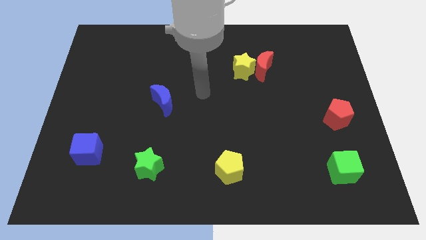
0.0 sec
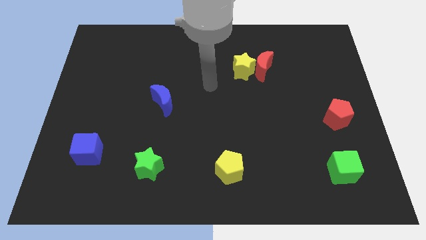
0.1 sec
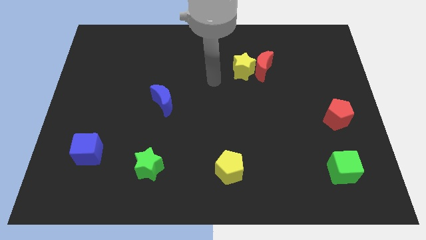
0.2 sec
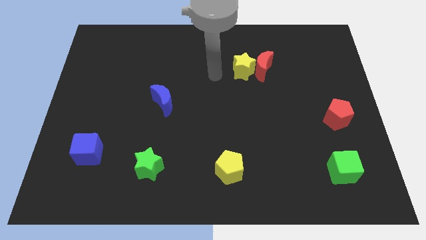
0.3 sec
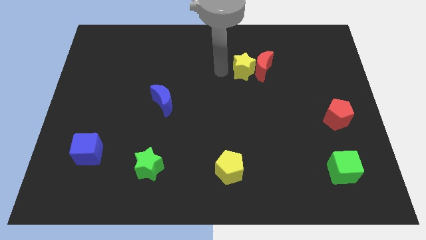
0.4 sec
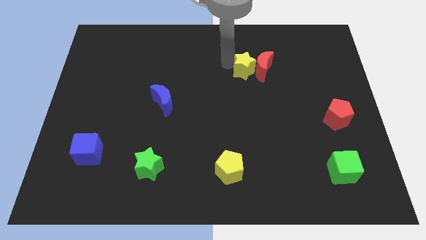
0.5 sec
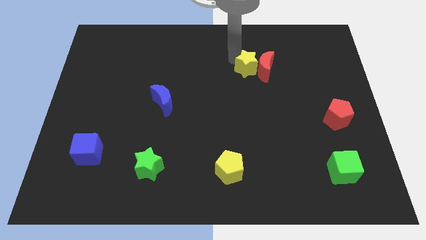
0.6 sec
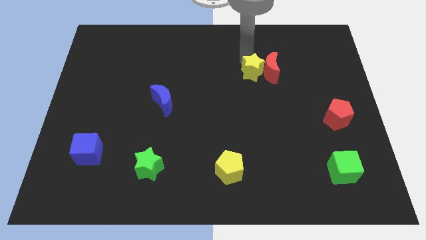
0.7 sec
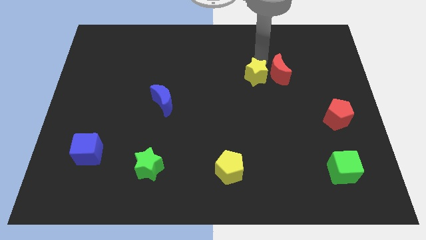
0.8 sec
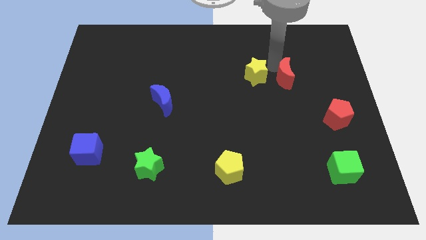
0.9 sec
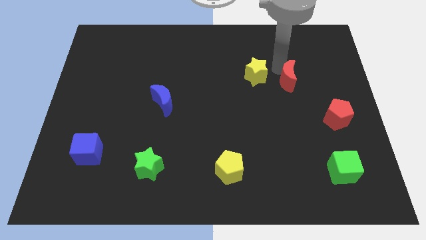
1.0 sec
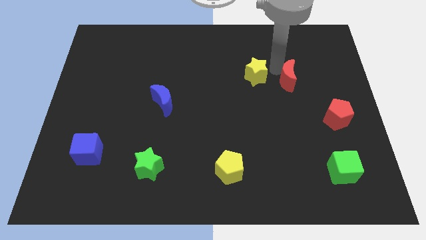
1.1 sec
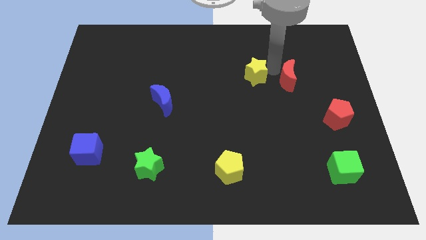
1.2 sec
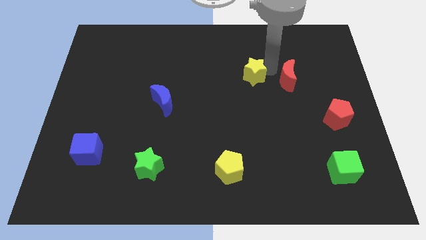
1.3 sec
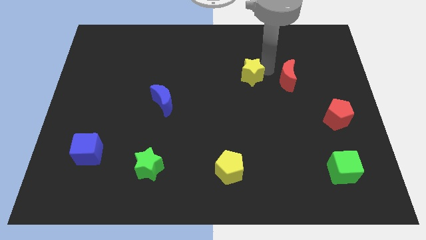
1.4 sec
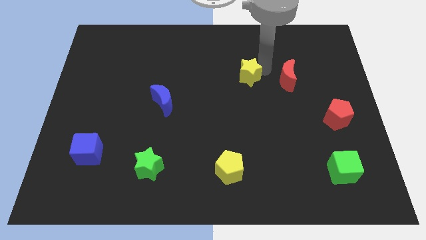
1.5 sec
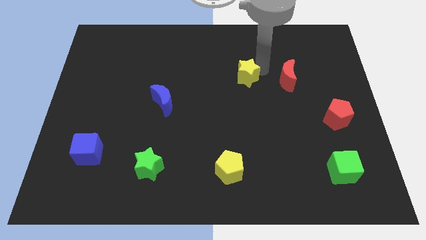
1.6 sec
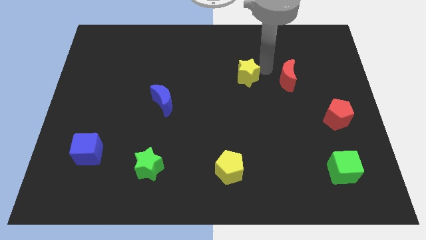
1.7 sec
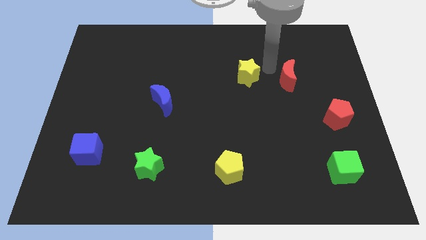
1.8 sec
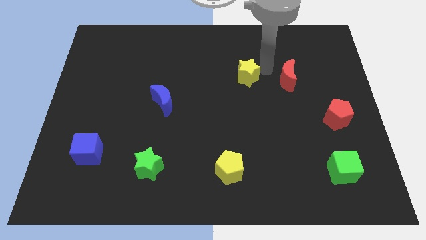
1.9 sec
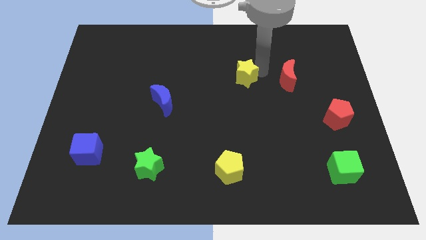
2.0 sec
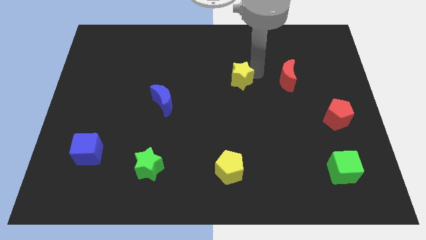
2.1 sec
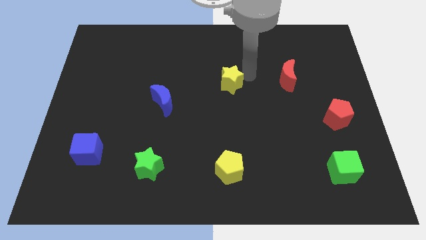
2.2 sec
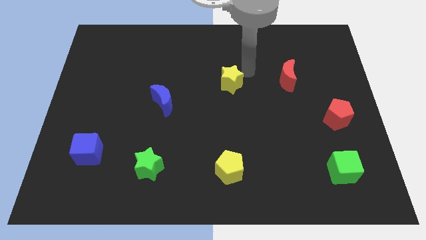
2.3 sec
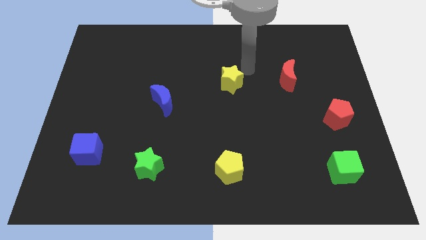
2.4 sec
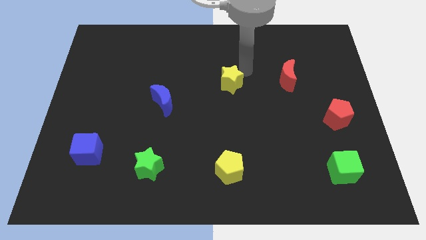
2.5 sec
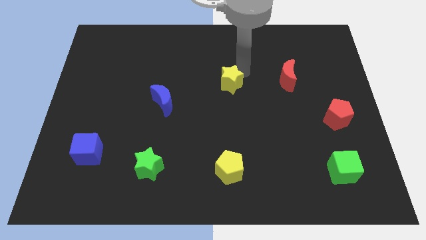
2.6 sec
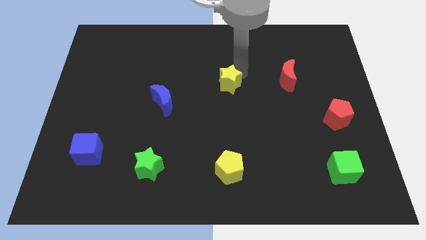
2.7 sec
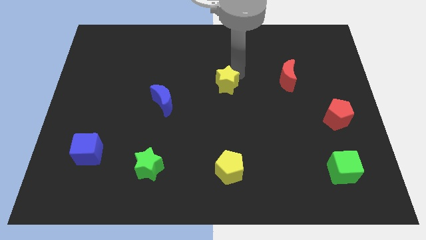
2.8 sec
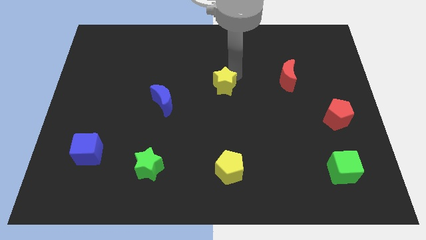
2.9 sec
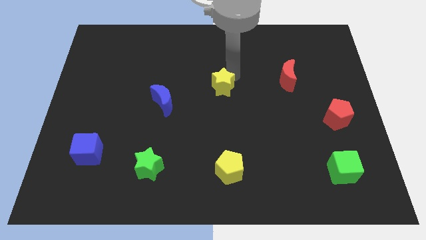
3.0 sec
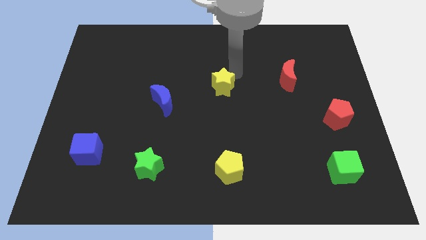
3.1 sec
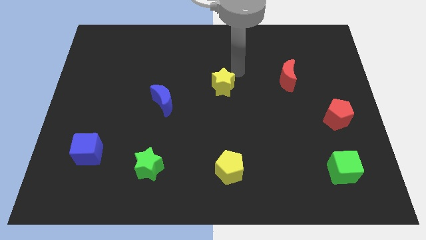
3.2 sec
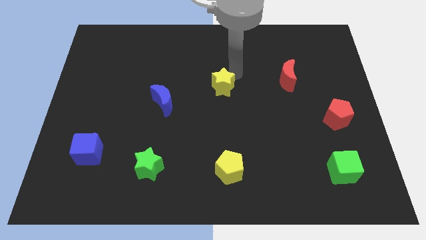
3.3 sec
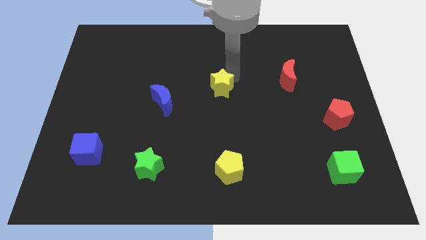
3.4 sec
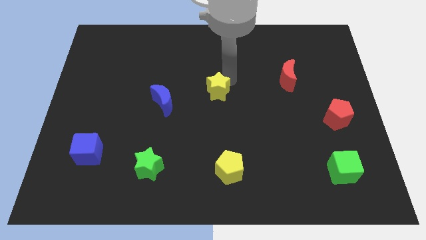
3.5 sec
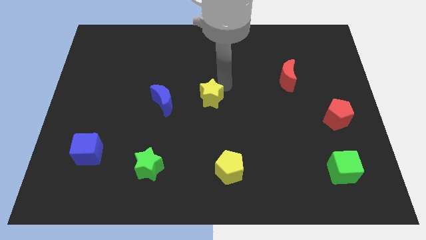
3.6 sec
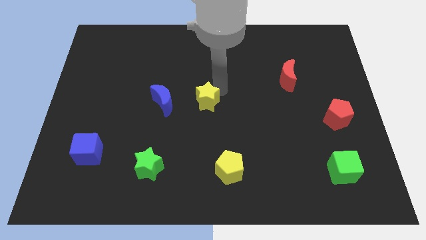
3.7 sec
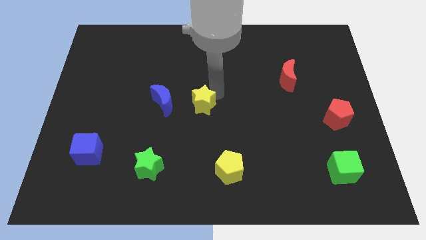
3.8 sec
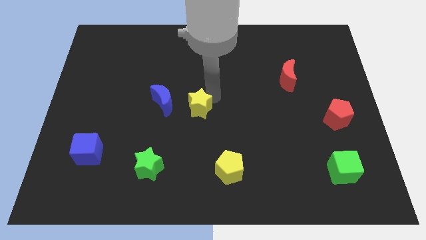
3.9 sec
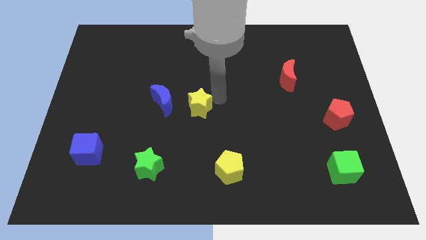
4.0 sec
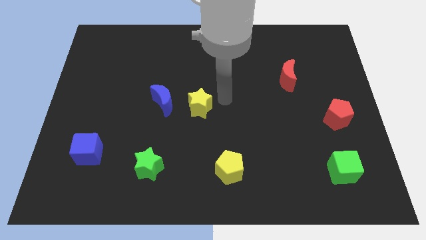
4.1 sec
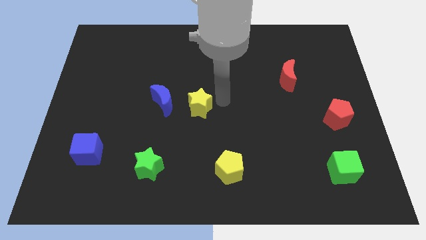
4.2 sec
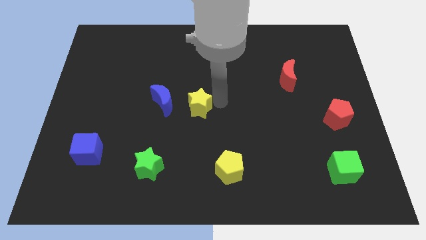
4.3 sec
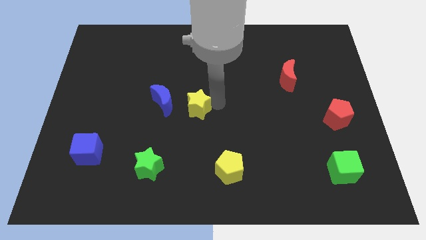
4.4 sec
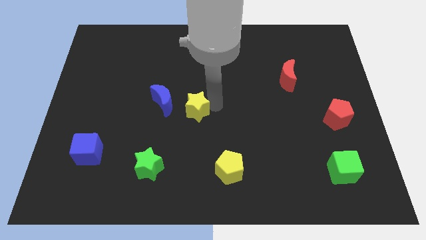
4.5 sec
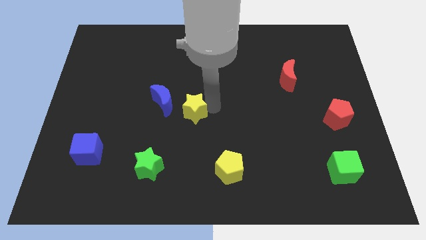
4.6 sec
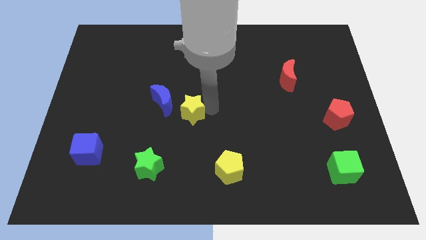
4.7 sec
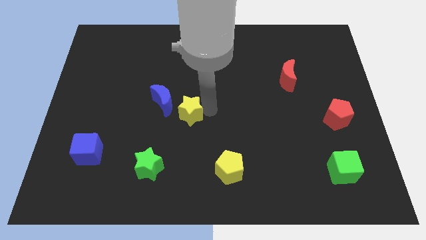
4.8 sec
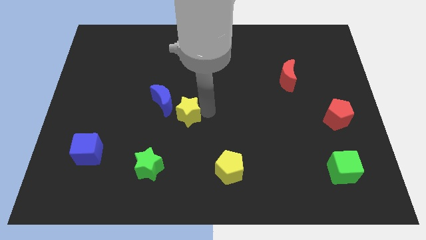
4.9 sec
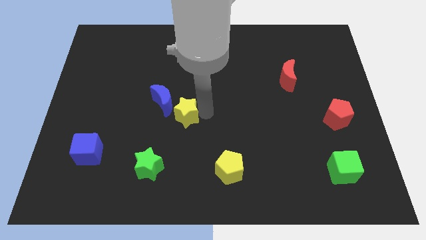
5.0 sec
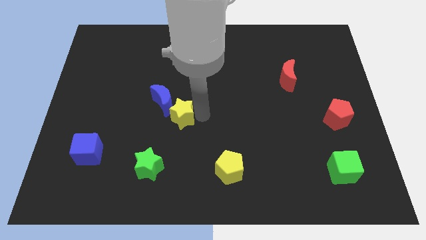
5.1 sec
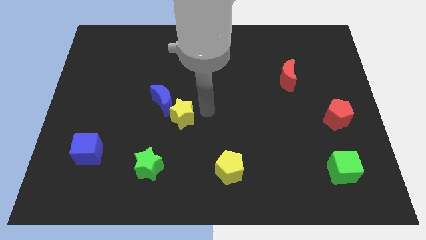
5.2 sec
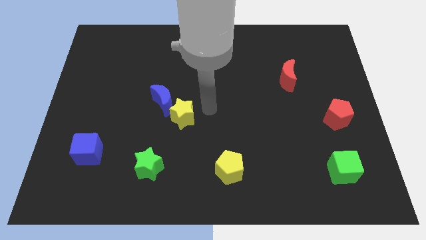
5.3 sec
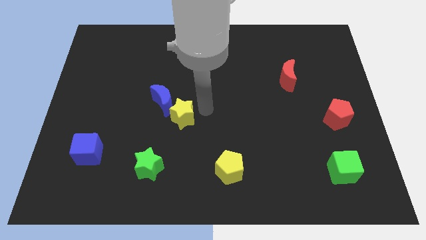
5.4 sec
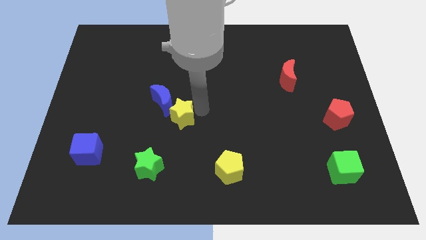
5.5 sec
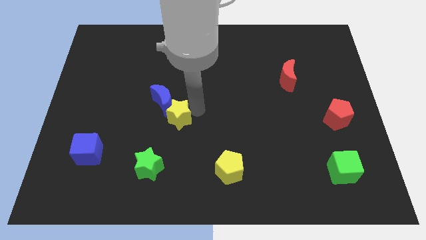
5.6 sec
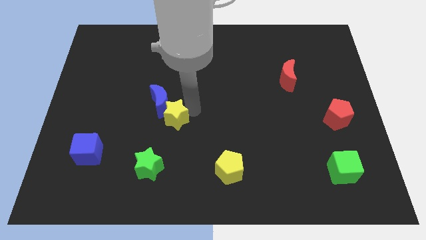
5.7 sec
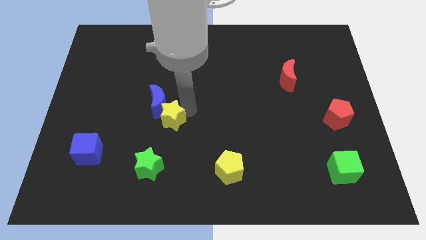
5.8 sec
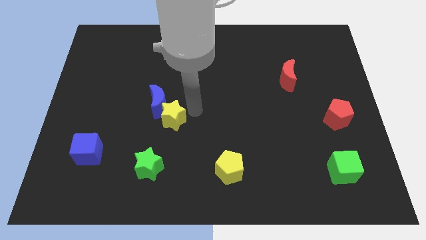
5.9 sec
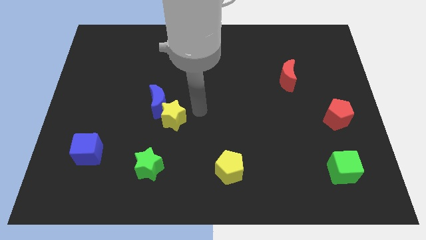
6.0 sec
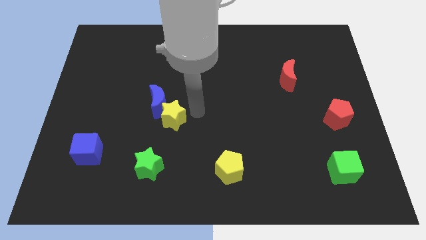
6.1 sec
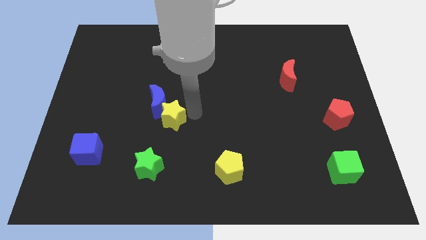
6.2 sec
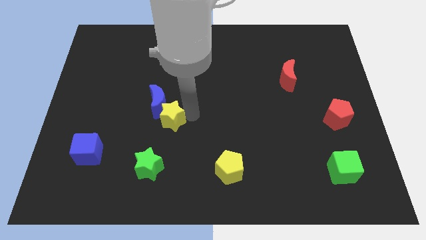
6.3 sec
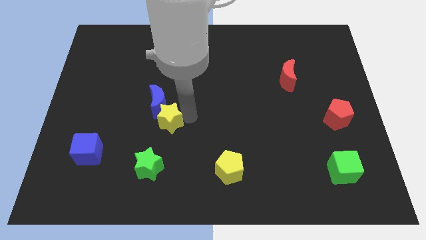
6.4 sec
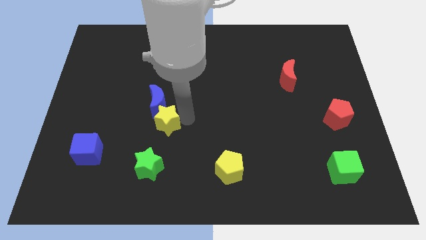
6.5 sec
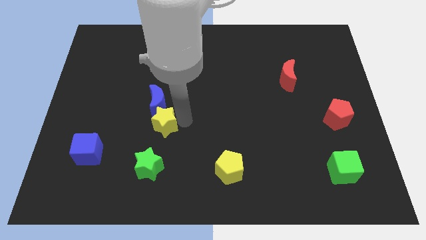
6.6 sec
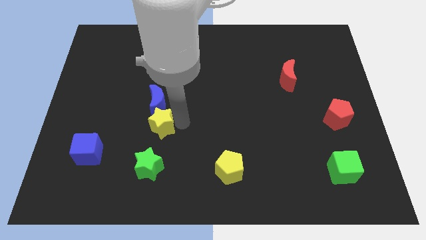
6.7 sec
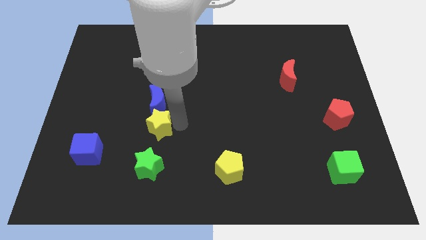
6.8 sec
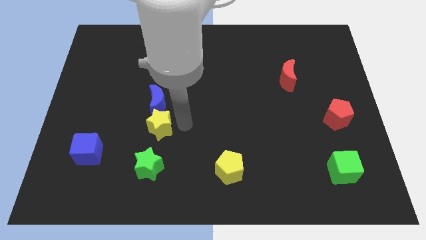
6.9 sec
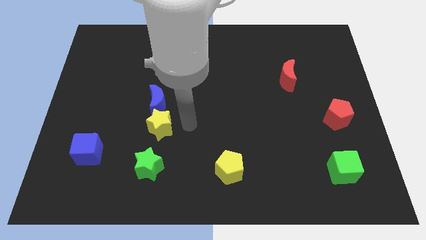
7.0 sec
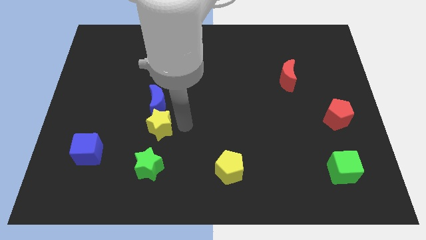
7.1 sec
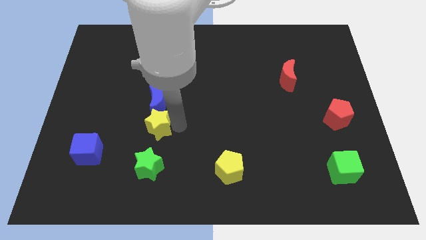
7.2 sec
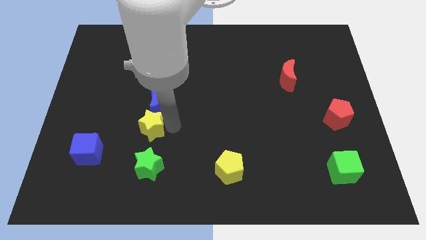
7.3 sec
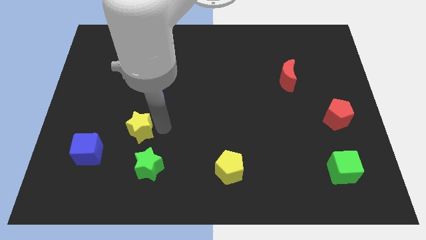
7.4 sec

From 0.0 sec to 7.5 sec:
put the yellow star to the top right of the blue cube
